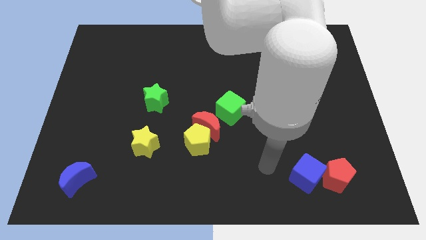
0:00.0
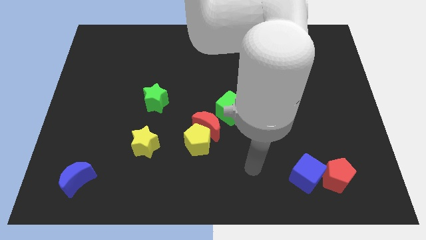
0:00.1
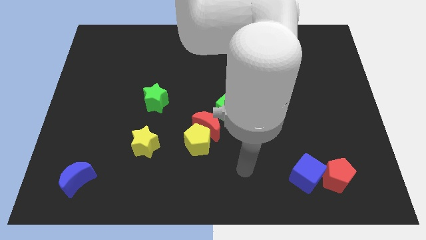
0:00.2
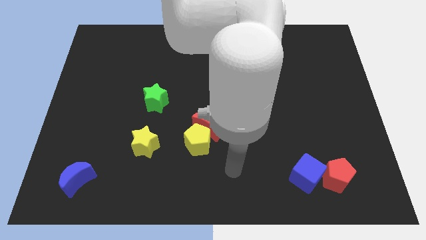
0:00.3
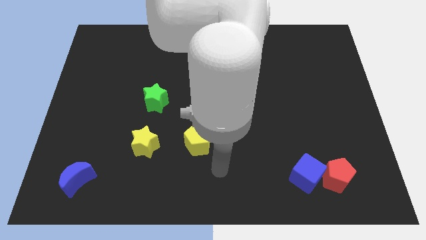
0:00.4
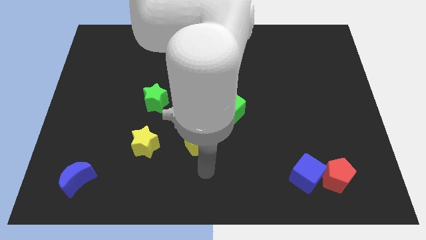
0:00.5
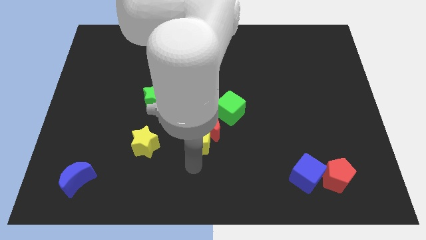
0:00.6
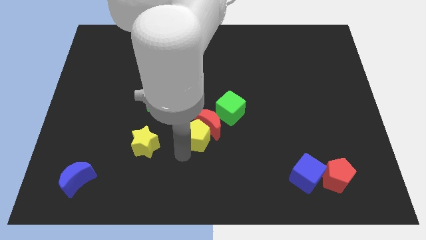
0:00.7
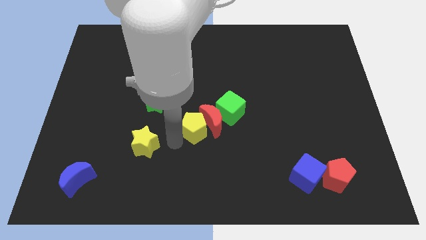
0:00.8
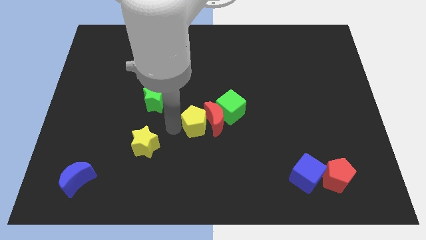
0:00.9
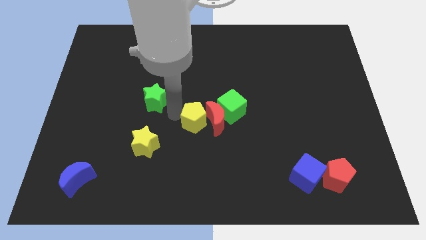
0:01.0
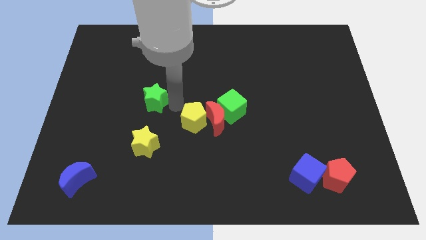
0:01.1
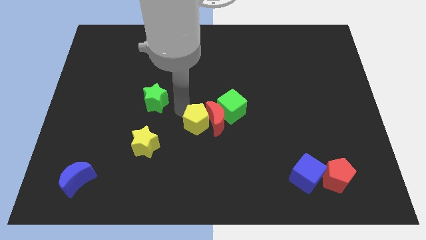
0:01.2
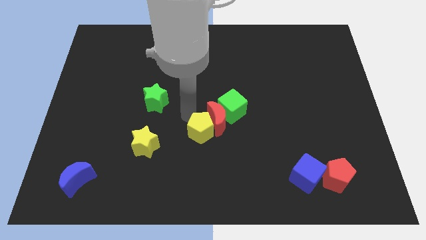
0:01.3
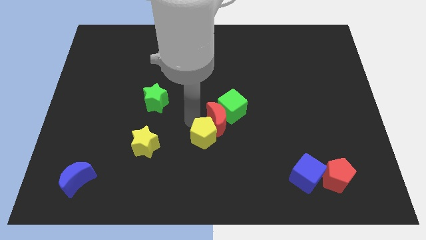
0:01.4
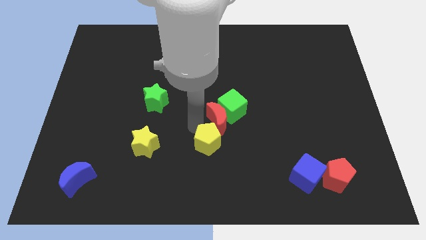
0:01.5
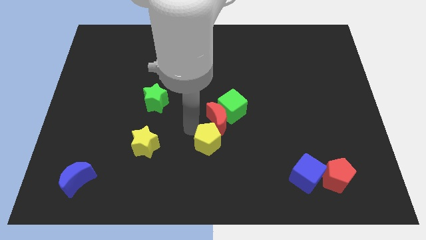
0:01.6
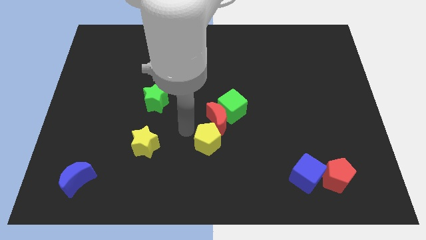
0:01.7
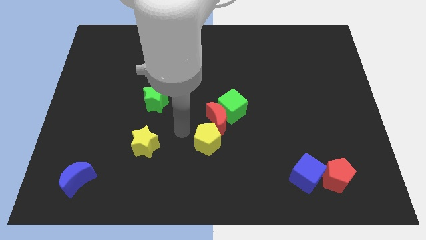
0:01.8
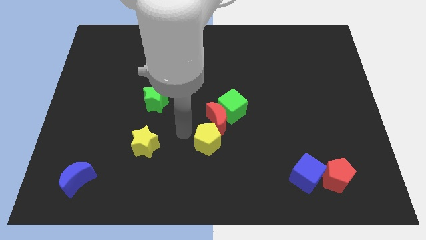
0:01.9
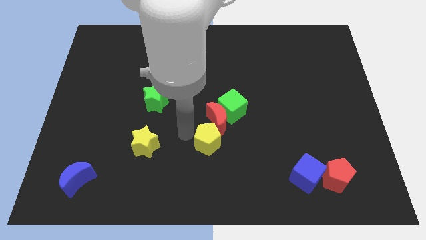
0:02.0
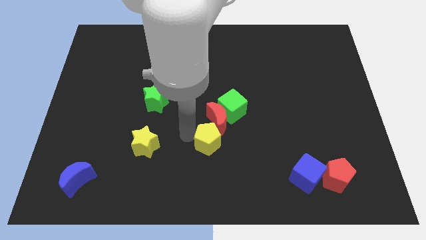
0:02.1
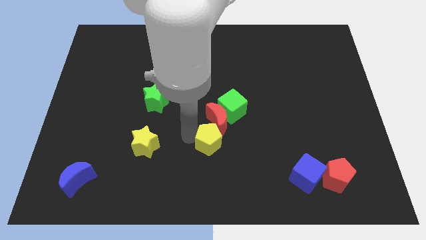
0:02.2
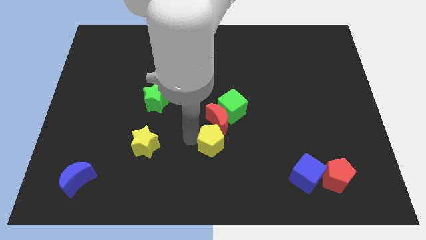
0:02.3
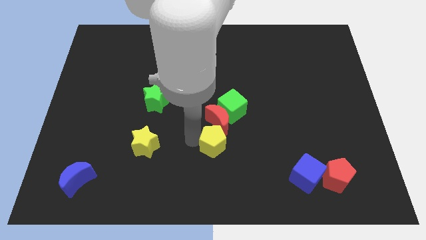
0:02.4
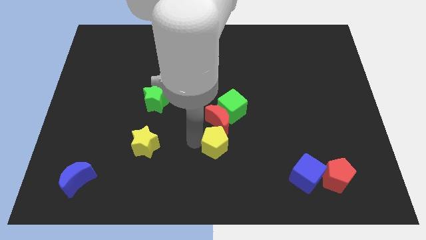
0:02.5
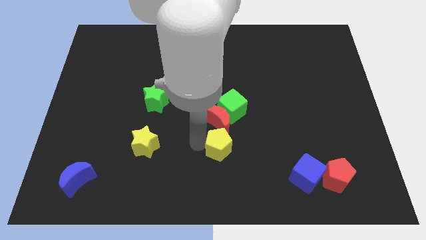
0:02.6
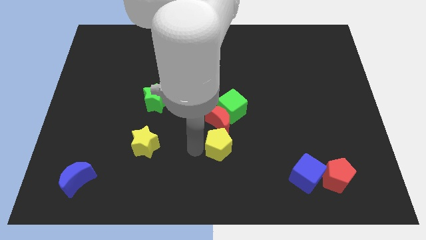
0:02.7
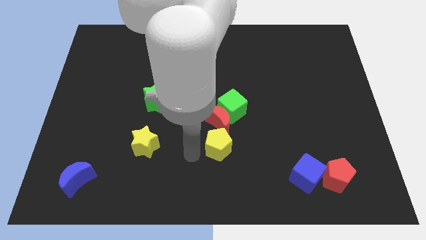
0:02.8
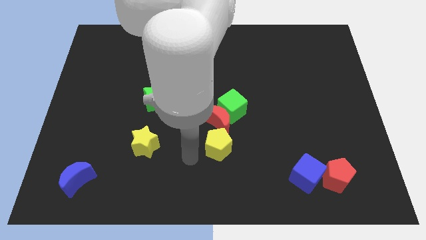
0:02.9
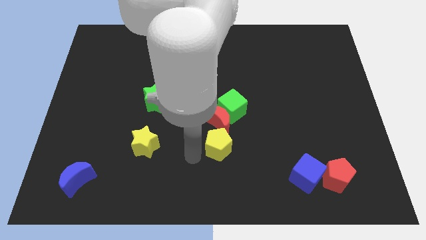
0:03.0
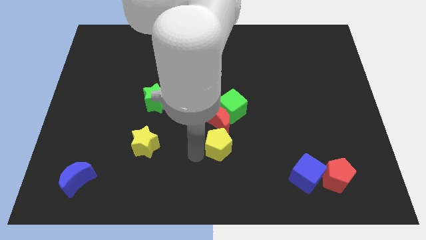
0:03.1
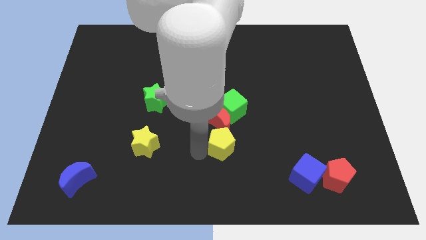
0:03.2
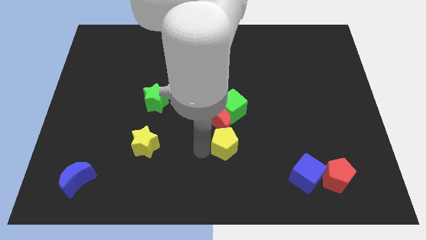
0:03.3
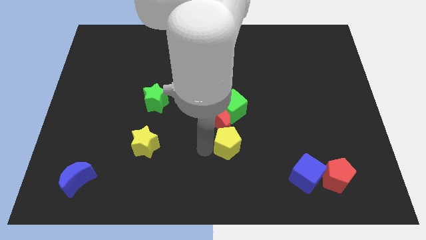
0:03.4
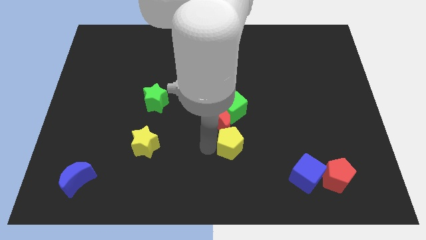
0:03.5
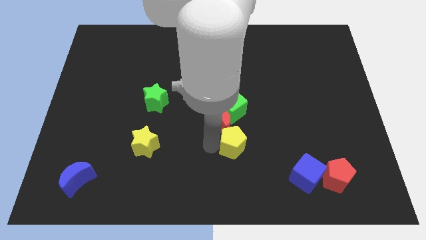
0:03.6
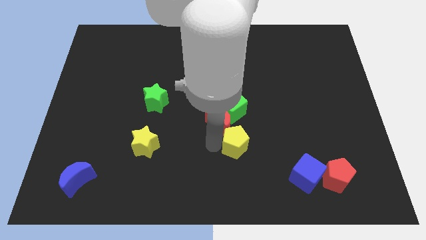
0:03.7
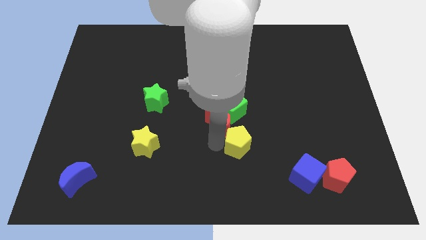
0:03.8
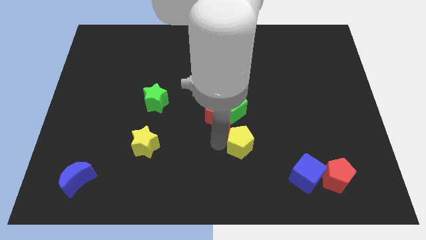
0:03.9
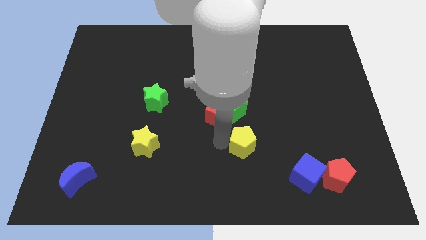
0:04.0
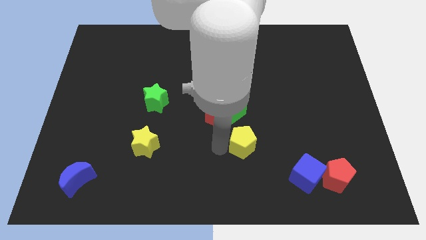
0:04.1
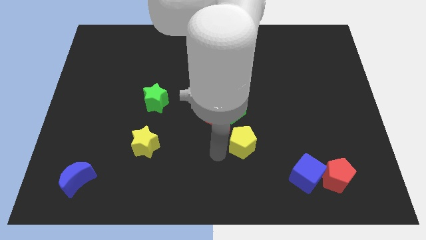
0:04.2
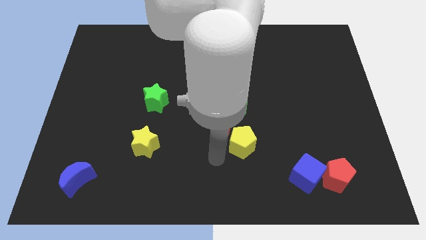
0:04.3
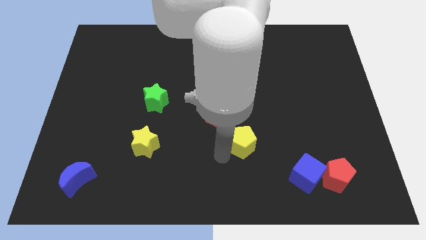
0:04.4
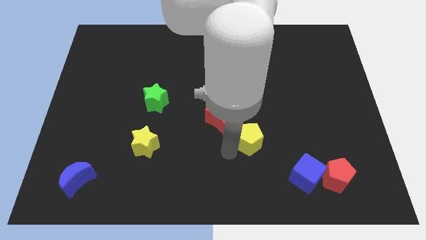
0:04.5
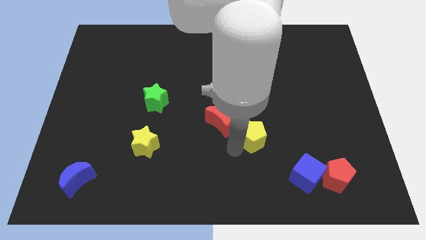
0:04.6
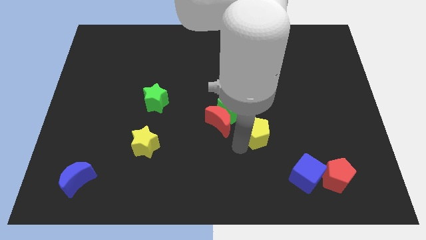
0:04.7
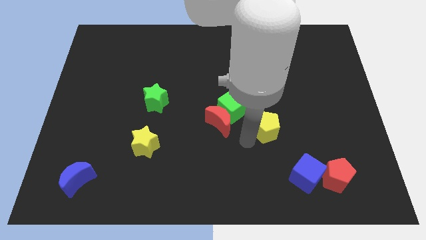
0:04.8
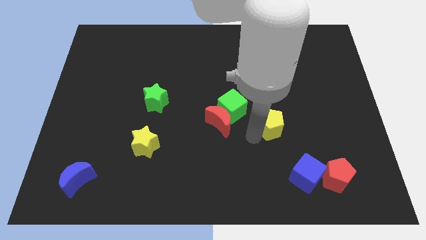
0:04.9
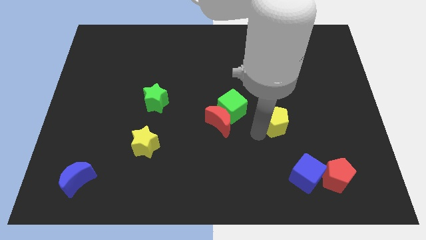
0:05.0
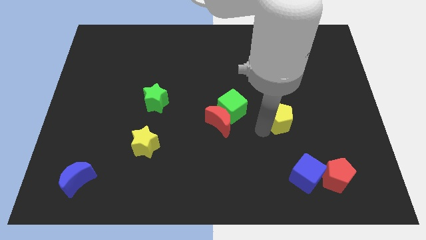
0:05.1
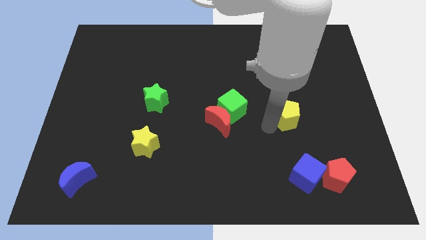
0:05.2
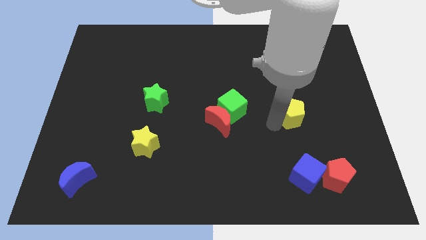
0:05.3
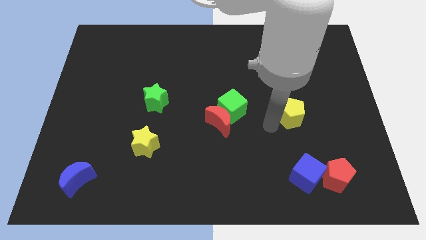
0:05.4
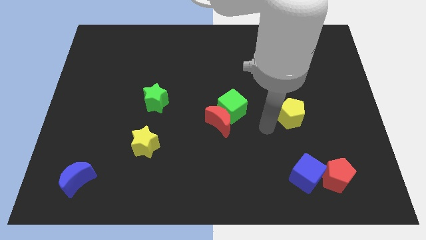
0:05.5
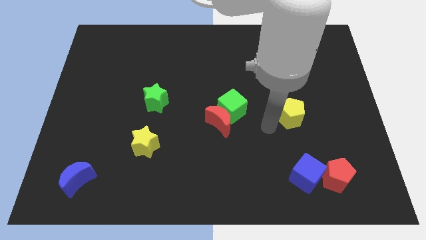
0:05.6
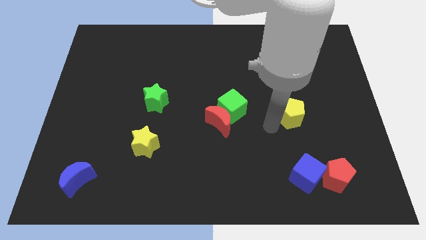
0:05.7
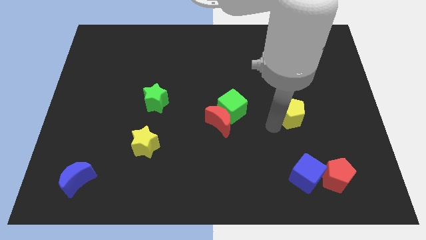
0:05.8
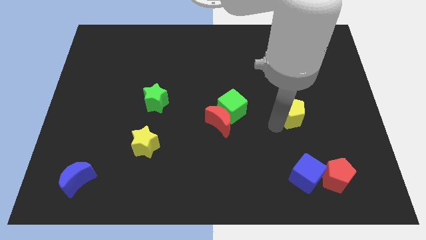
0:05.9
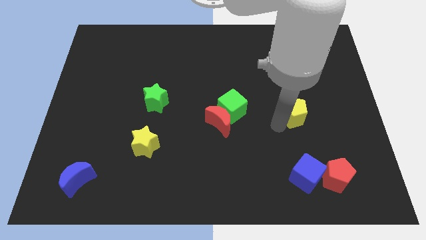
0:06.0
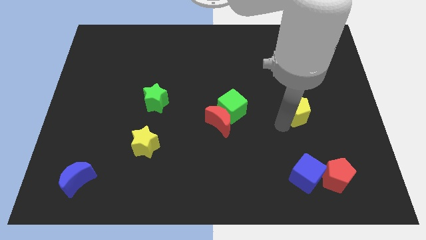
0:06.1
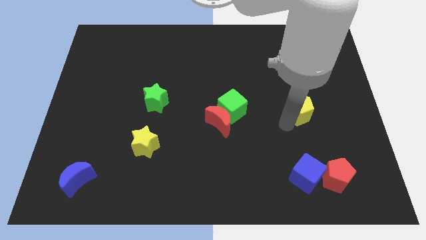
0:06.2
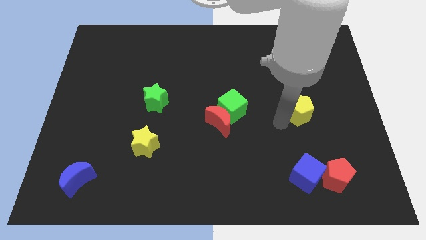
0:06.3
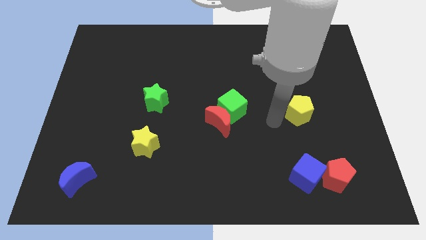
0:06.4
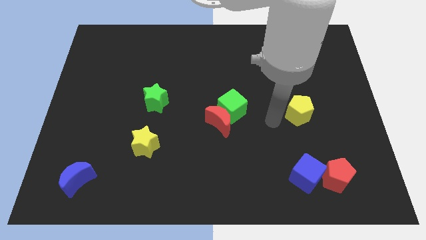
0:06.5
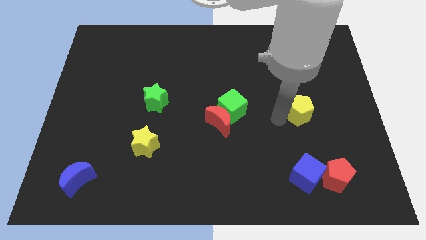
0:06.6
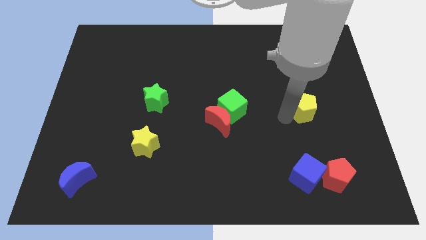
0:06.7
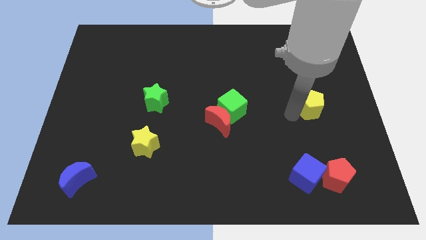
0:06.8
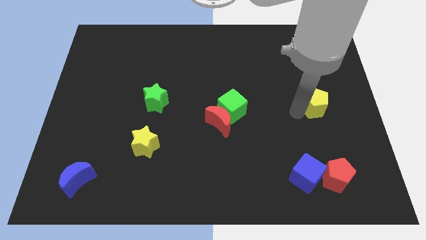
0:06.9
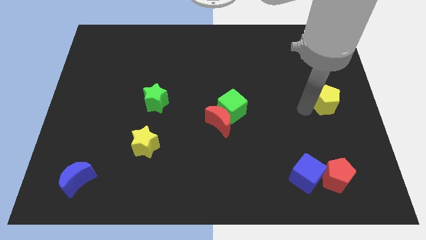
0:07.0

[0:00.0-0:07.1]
move the yellow pentagon to the right side of the board
